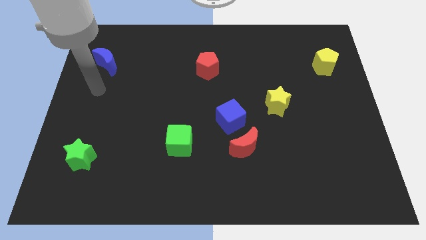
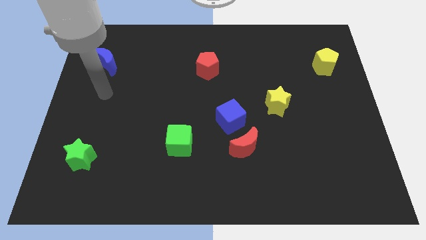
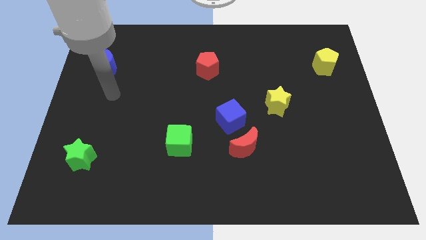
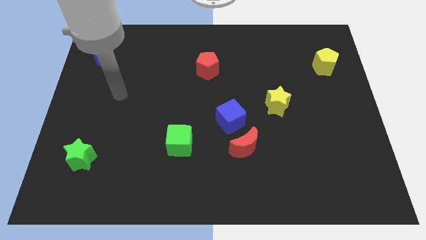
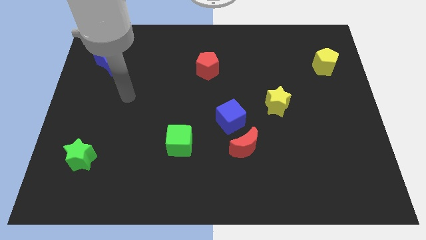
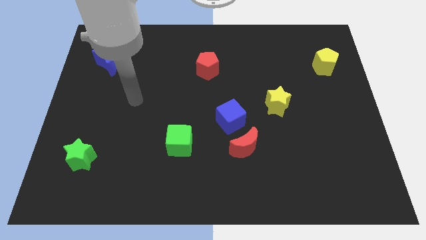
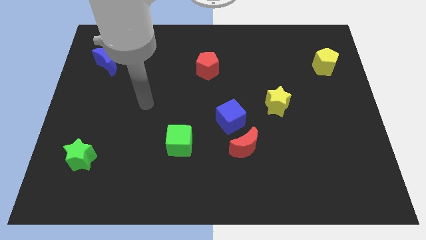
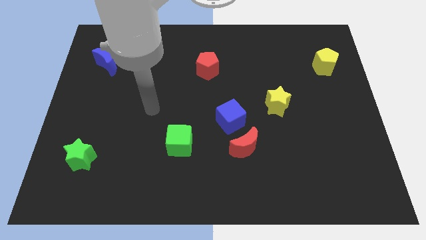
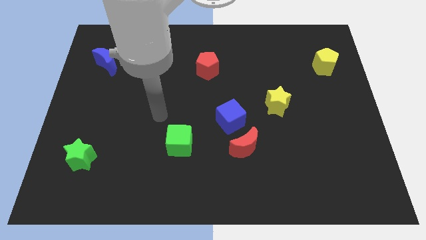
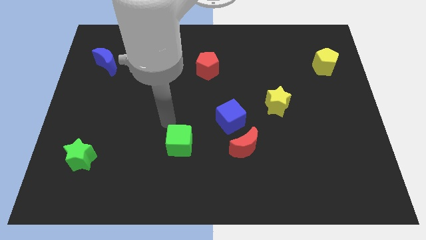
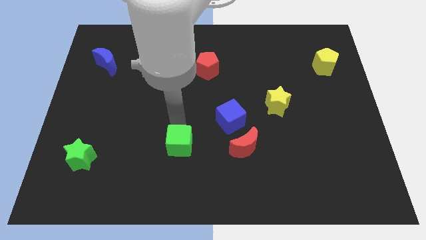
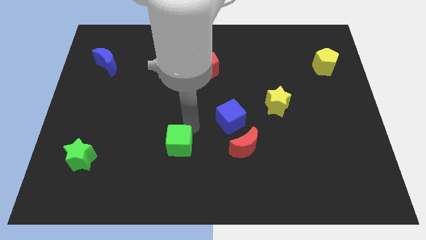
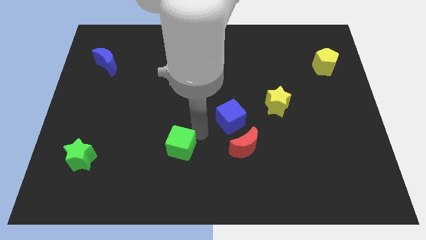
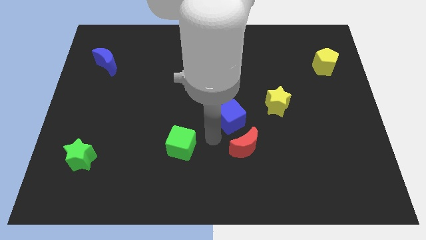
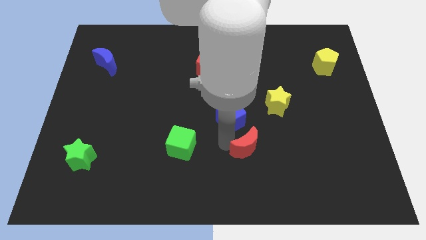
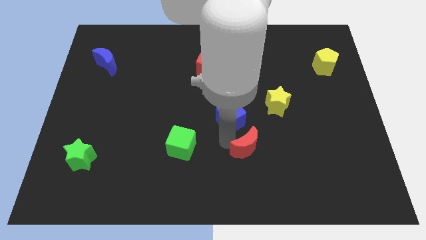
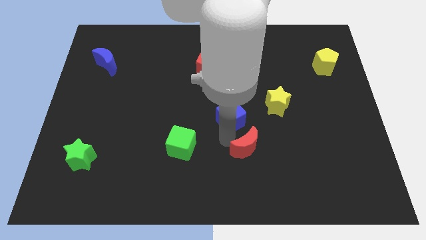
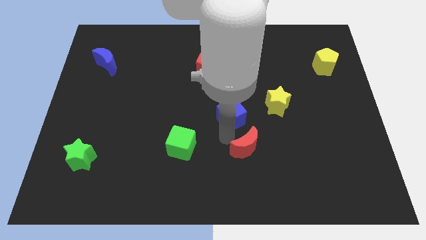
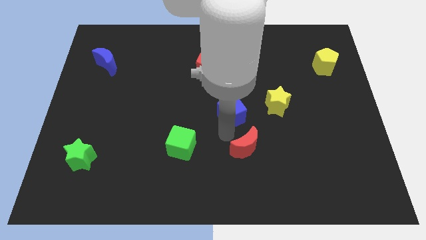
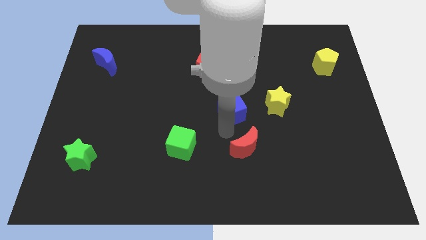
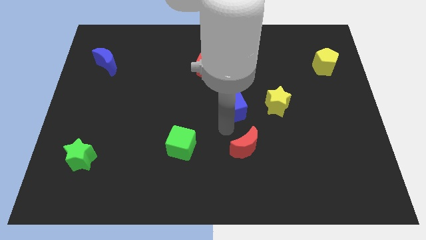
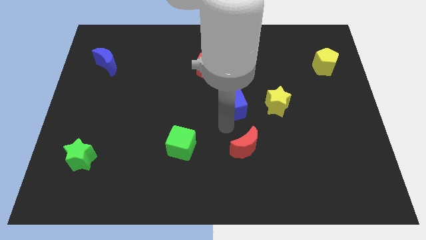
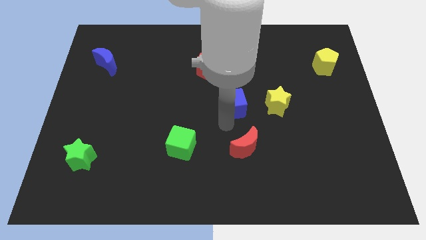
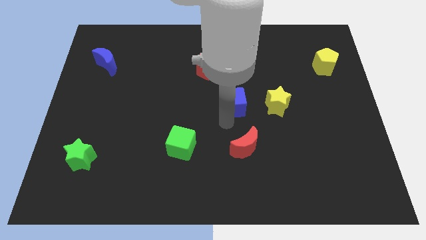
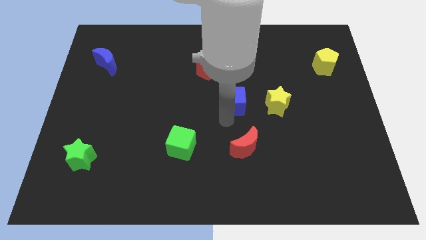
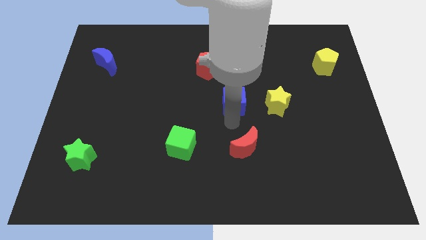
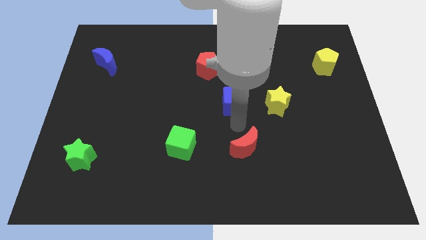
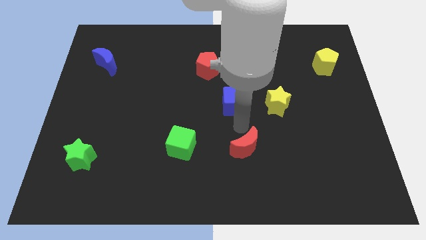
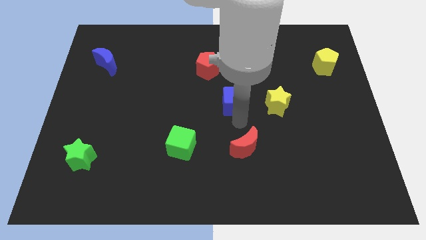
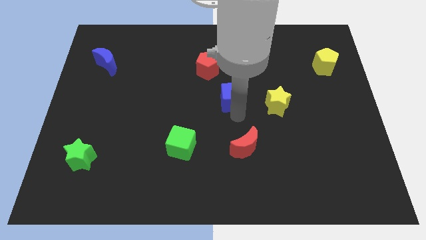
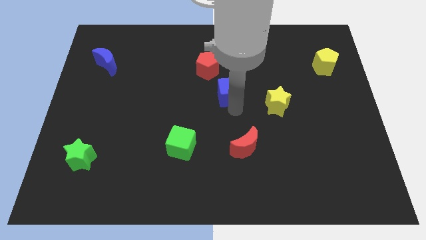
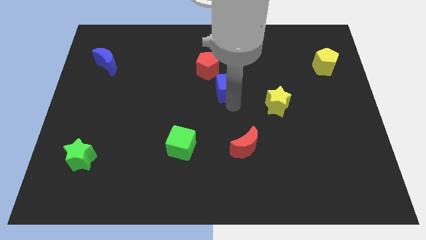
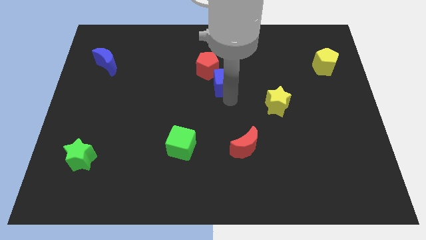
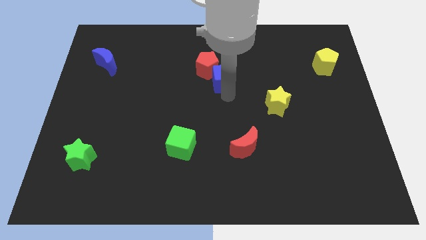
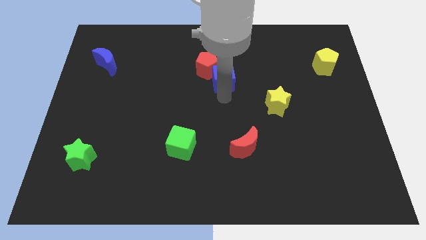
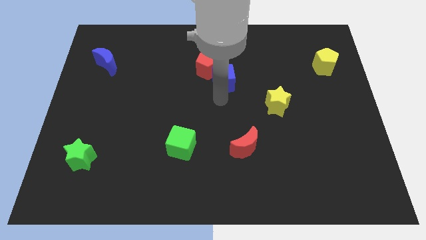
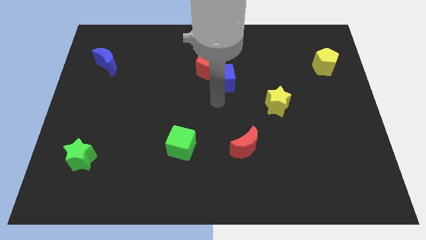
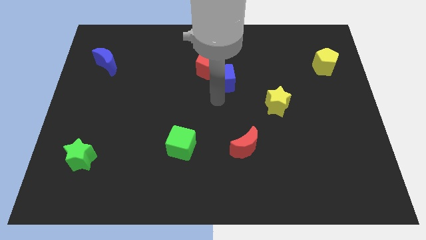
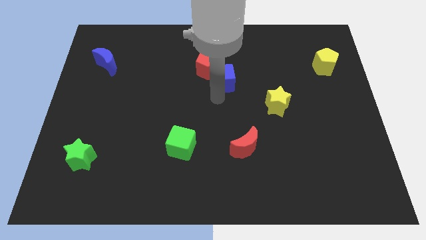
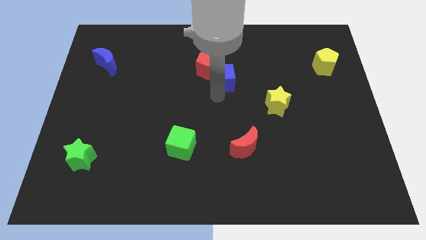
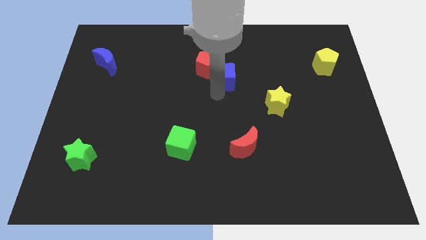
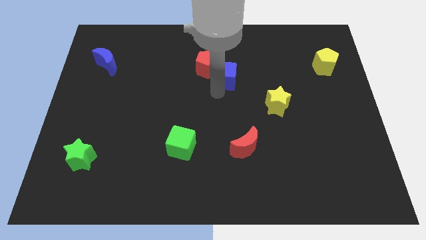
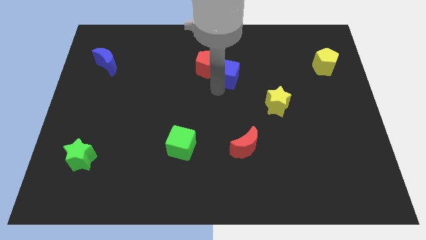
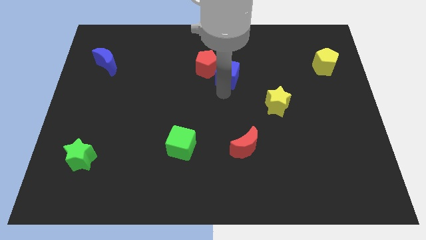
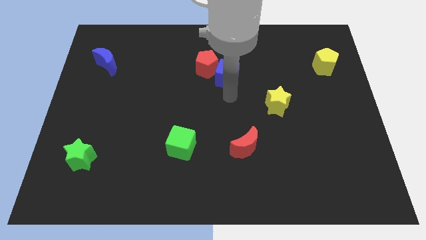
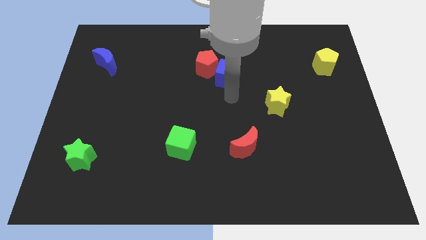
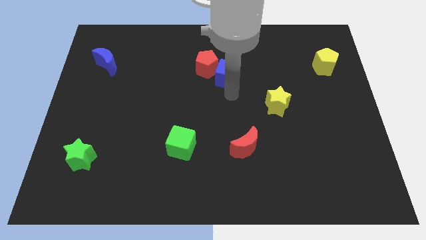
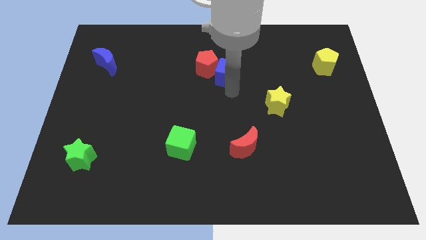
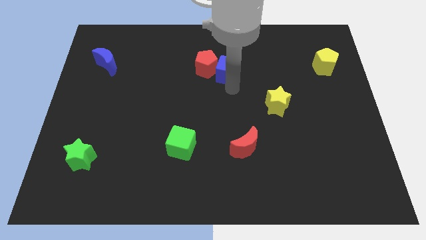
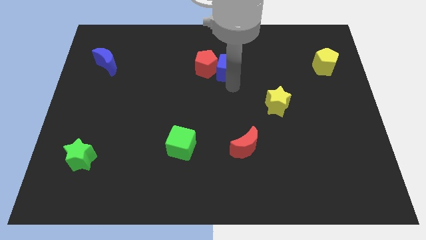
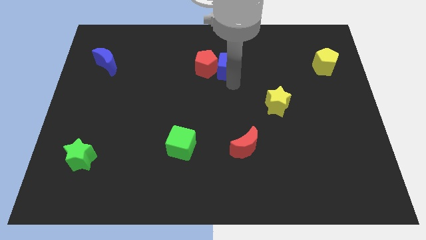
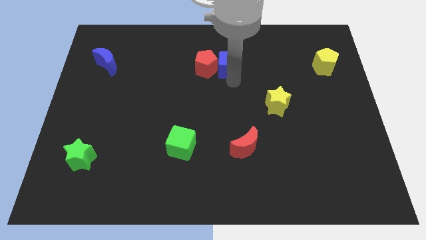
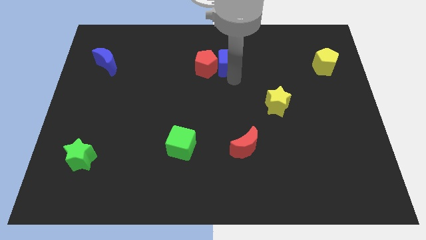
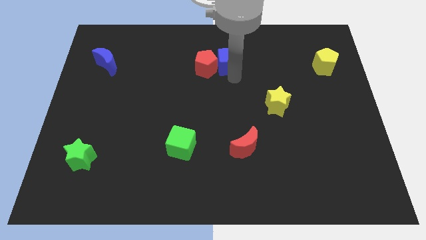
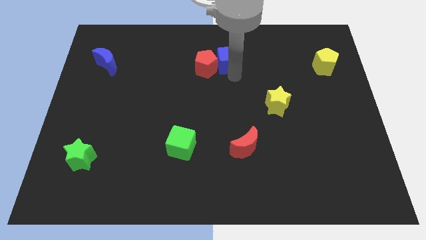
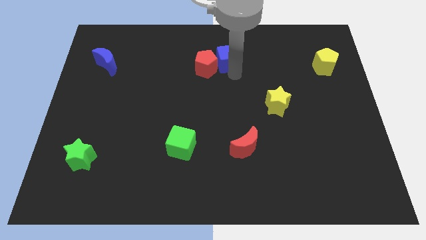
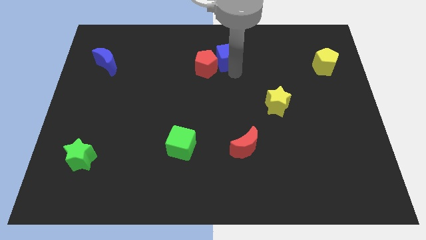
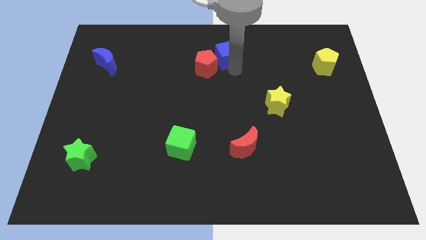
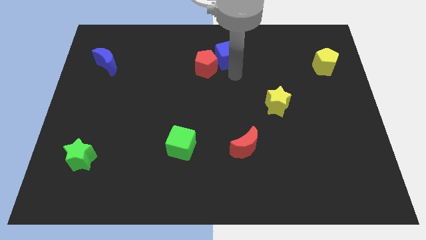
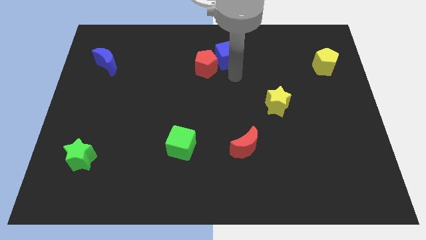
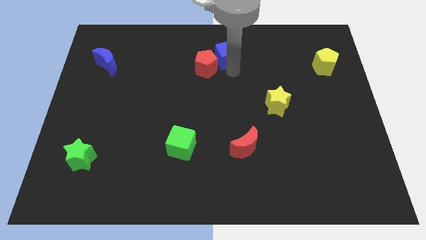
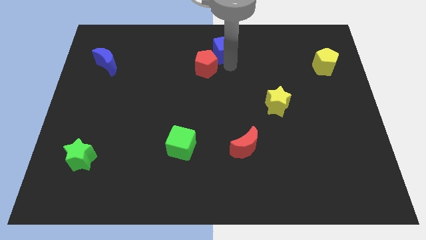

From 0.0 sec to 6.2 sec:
move the blue cube to the top
